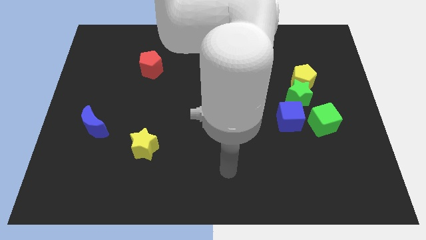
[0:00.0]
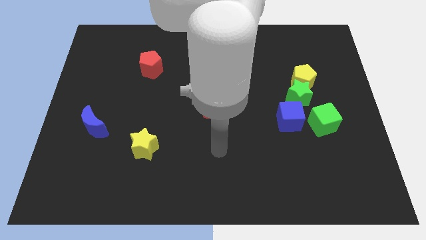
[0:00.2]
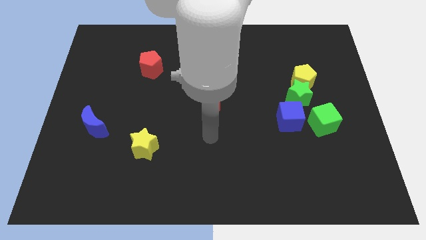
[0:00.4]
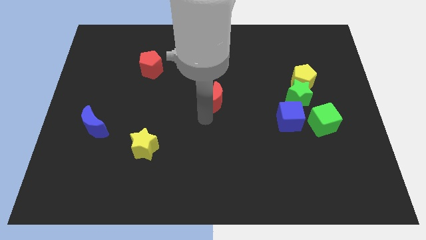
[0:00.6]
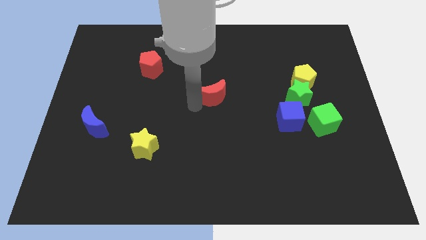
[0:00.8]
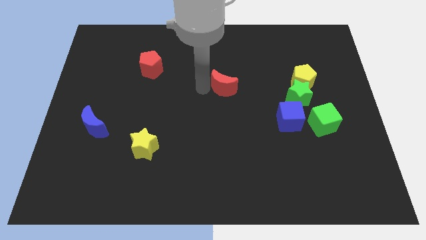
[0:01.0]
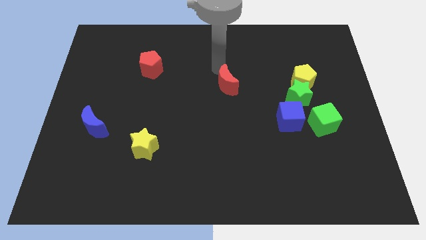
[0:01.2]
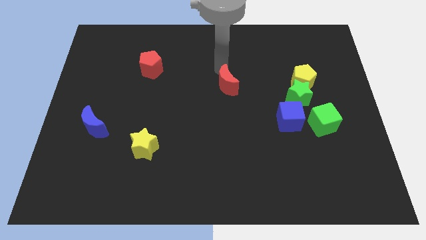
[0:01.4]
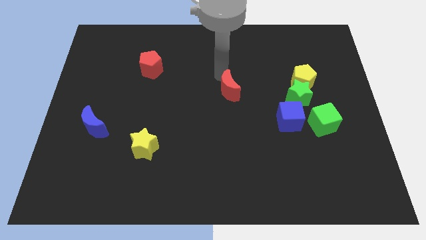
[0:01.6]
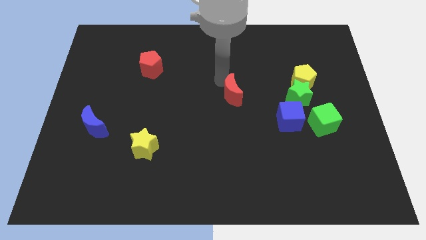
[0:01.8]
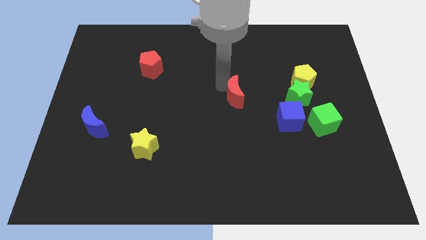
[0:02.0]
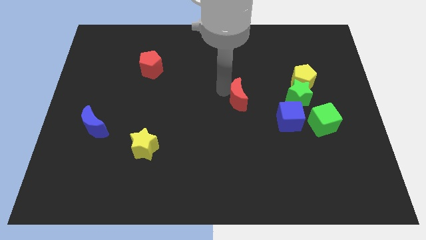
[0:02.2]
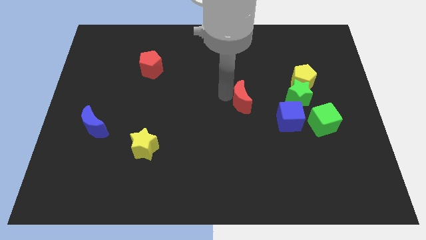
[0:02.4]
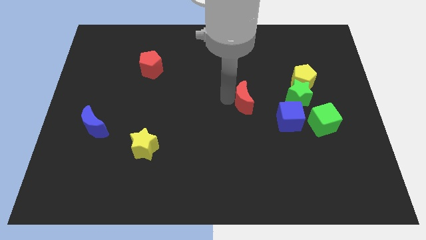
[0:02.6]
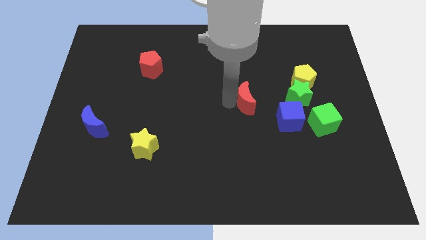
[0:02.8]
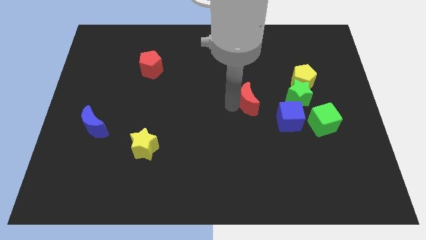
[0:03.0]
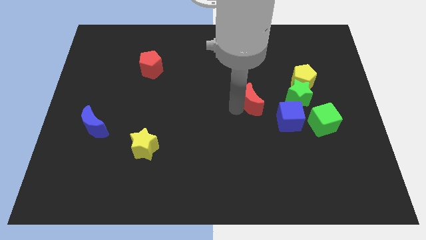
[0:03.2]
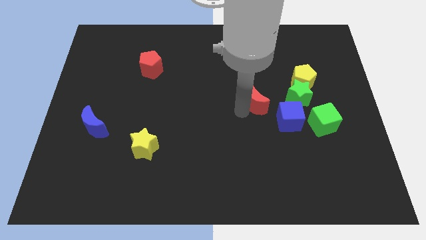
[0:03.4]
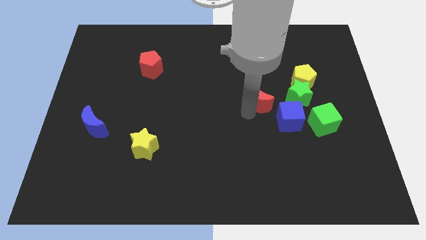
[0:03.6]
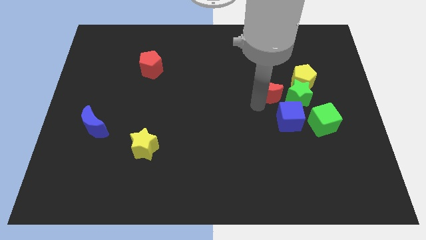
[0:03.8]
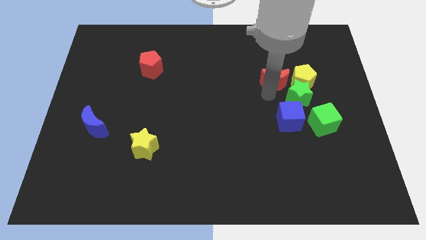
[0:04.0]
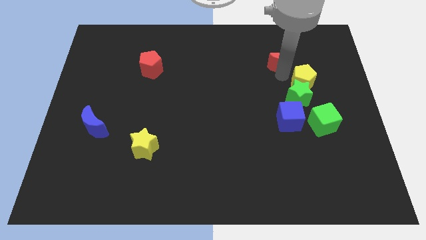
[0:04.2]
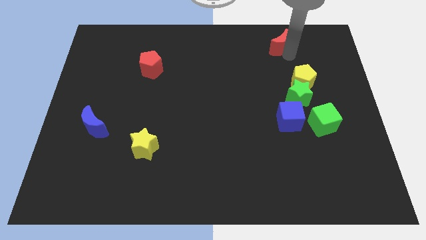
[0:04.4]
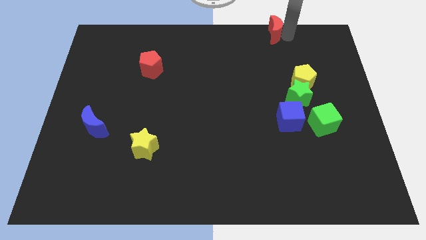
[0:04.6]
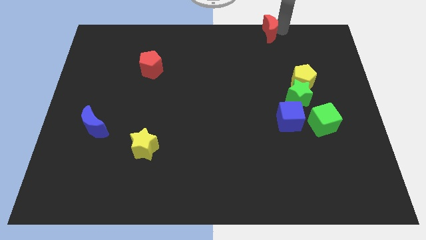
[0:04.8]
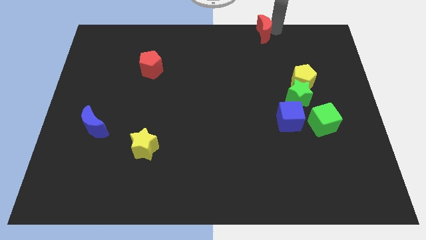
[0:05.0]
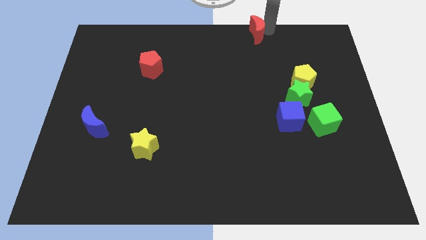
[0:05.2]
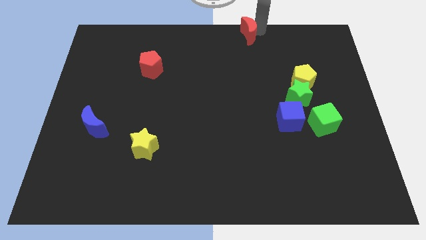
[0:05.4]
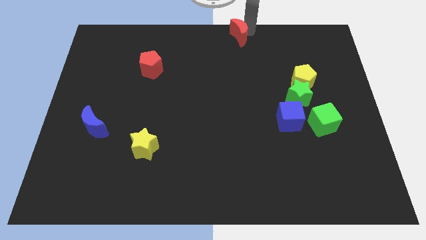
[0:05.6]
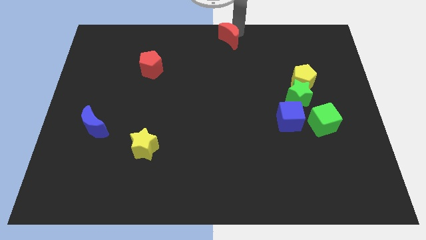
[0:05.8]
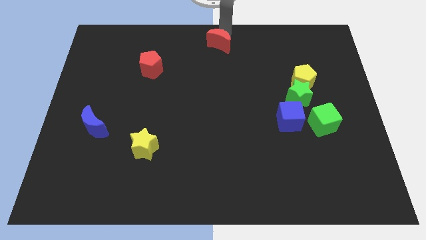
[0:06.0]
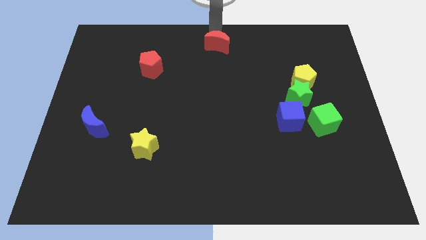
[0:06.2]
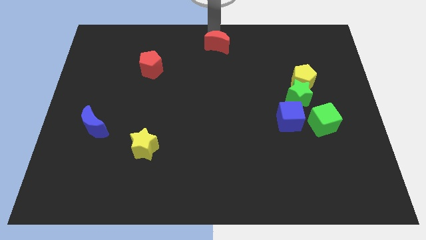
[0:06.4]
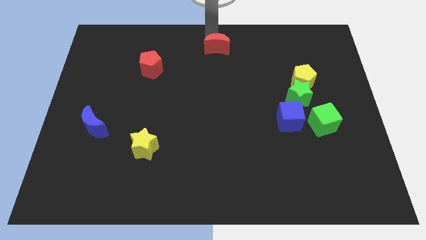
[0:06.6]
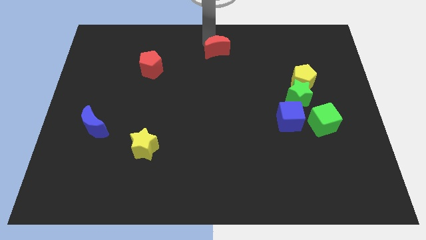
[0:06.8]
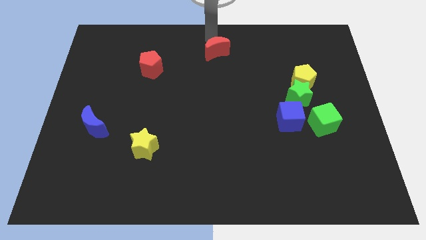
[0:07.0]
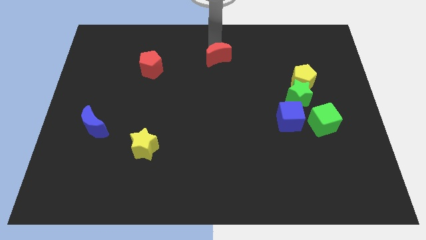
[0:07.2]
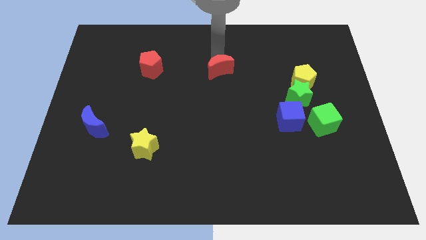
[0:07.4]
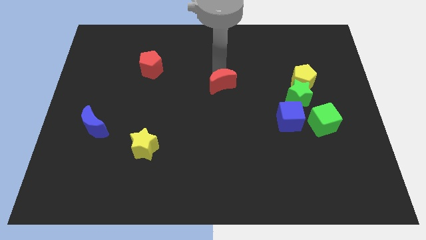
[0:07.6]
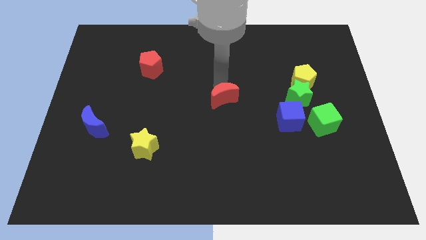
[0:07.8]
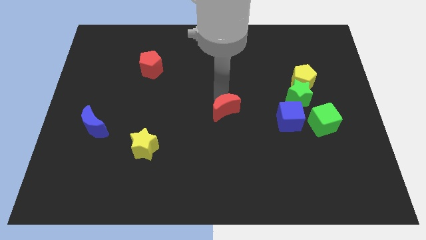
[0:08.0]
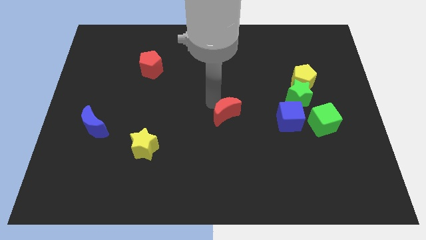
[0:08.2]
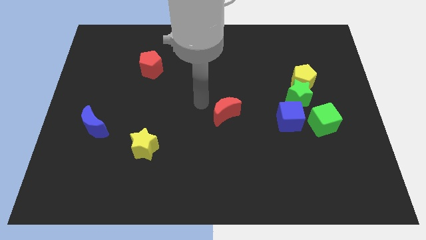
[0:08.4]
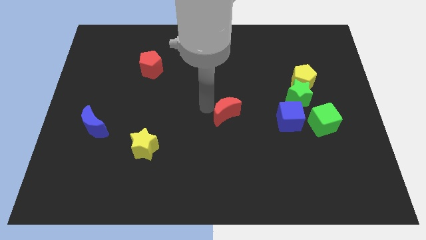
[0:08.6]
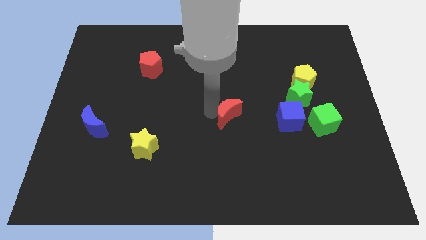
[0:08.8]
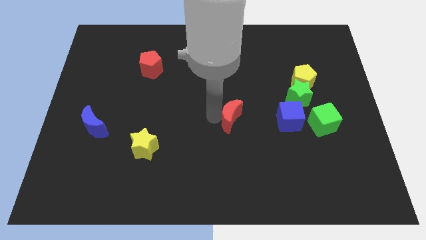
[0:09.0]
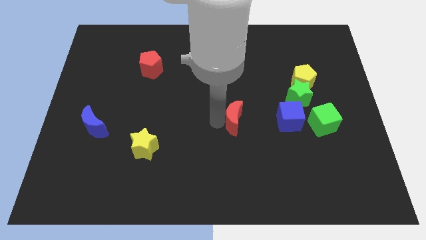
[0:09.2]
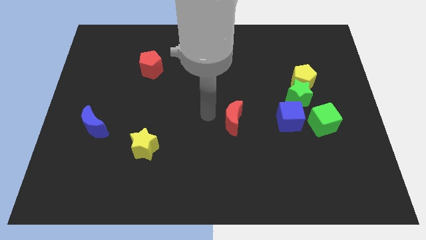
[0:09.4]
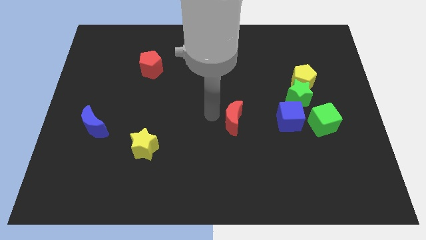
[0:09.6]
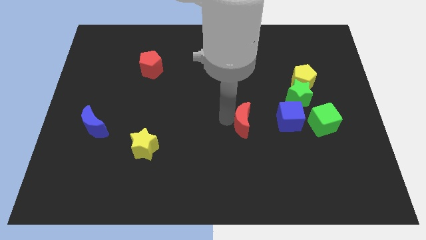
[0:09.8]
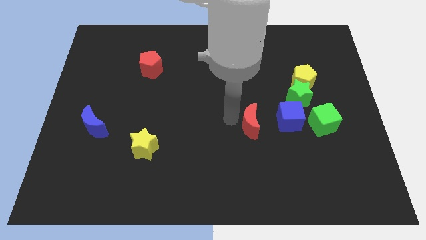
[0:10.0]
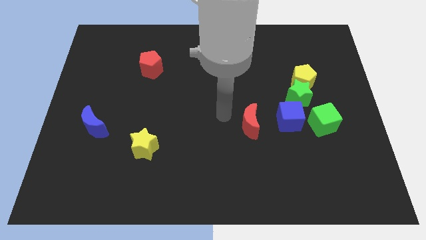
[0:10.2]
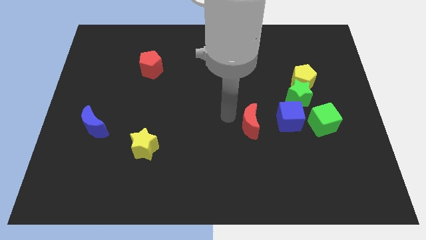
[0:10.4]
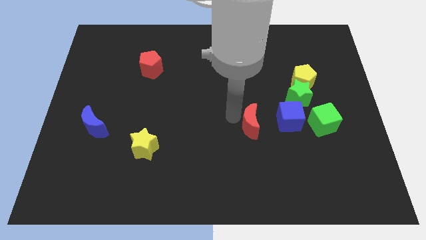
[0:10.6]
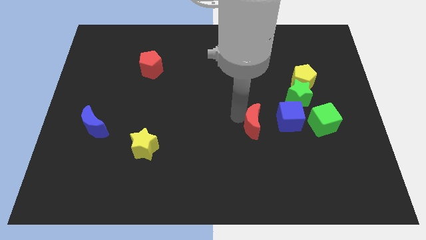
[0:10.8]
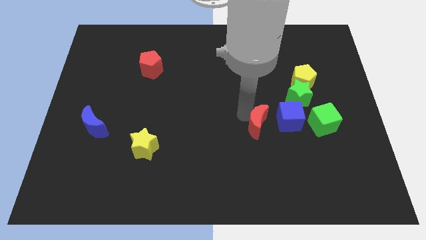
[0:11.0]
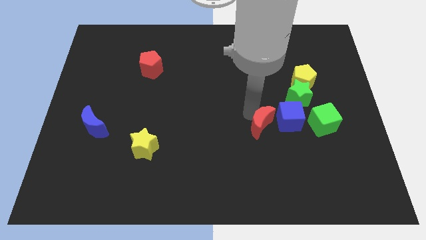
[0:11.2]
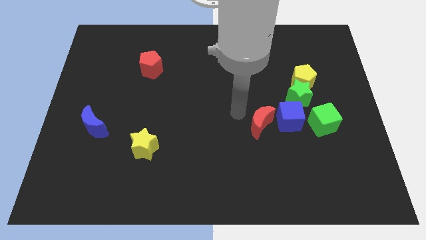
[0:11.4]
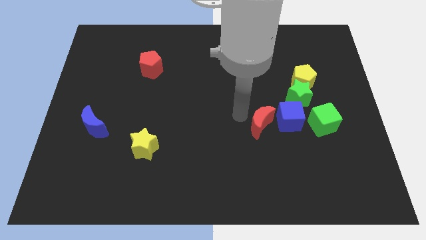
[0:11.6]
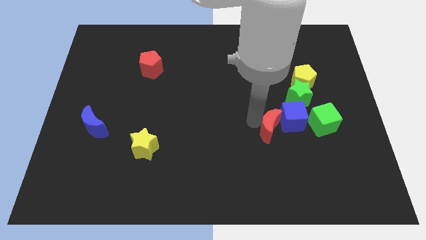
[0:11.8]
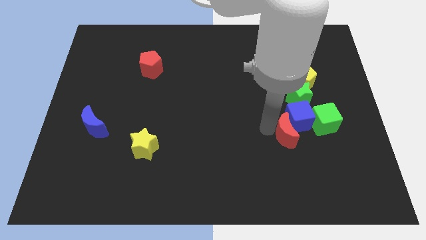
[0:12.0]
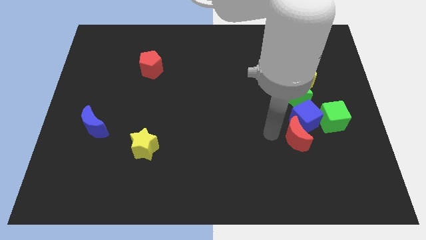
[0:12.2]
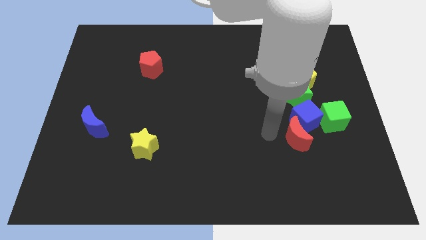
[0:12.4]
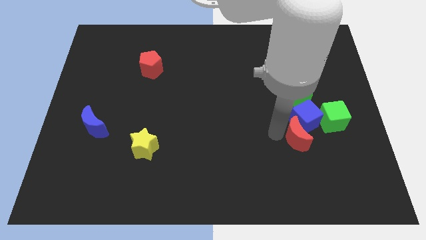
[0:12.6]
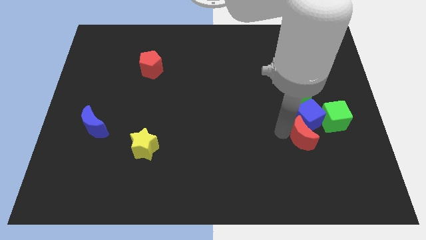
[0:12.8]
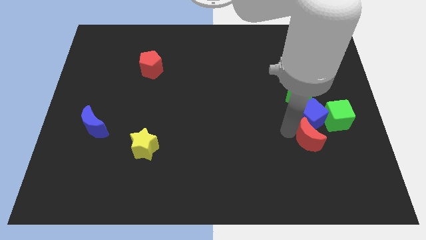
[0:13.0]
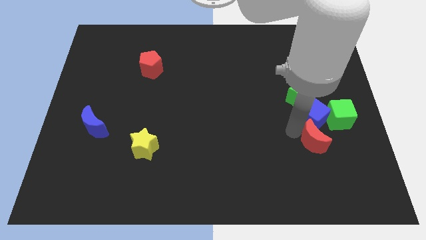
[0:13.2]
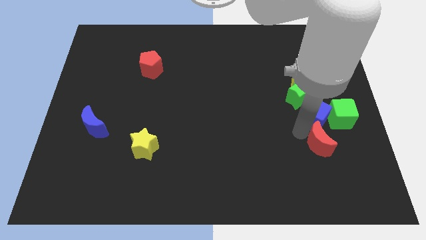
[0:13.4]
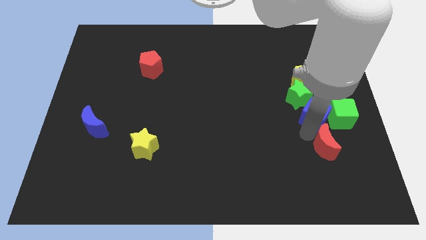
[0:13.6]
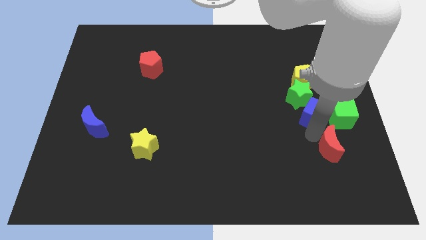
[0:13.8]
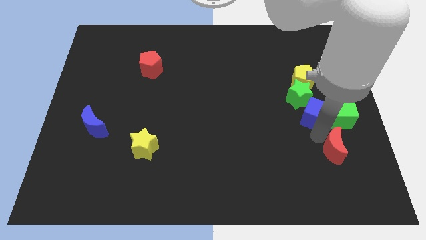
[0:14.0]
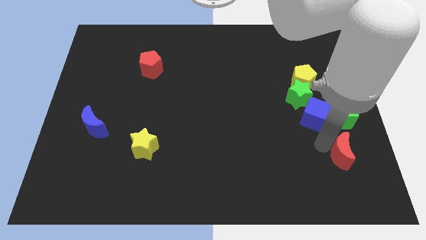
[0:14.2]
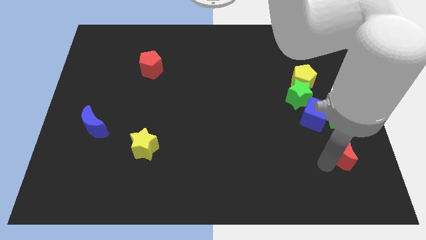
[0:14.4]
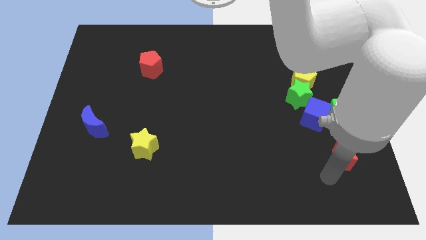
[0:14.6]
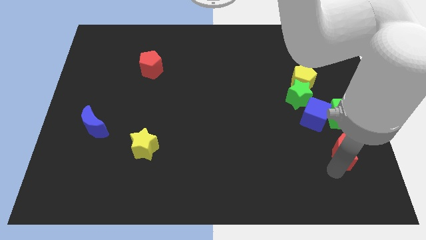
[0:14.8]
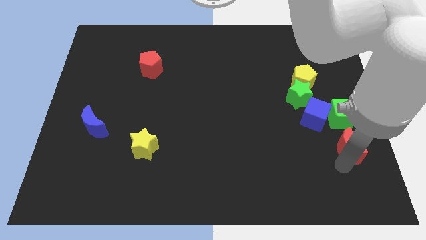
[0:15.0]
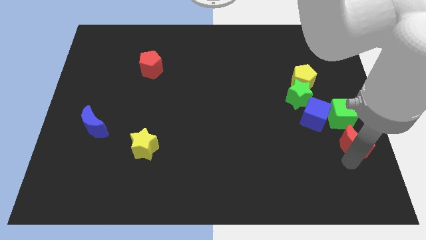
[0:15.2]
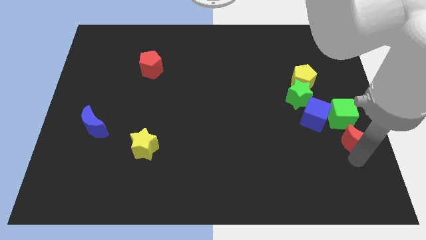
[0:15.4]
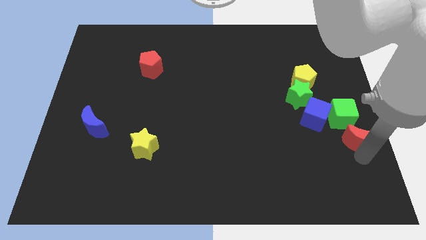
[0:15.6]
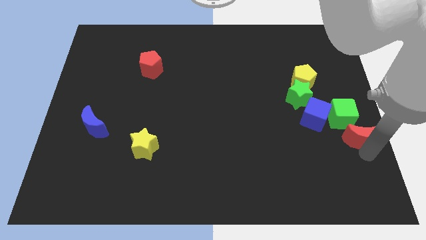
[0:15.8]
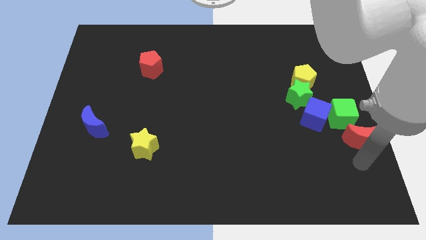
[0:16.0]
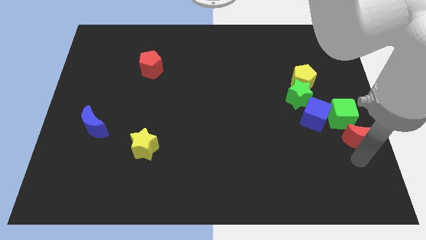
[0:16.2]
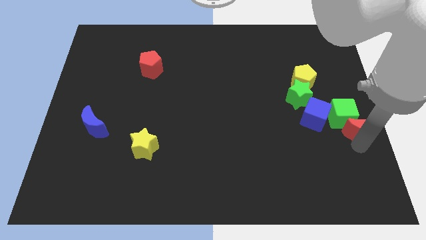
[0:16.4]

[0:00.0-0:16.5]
slide the red moon just right of the blue cube
